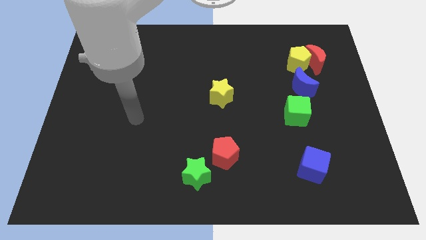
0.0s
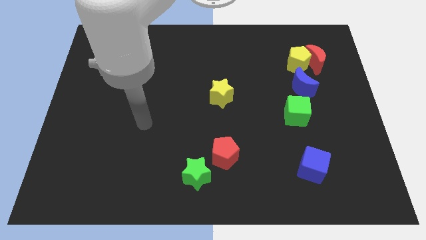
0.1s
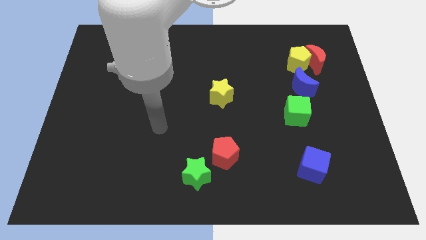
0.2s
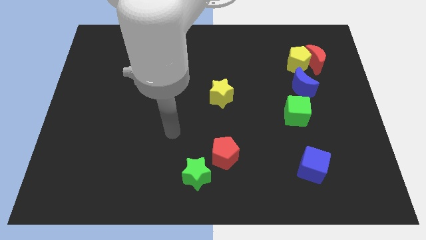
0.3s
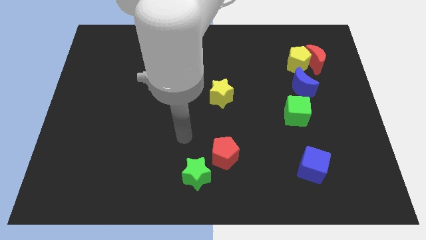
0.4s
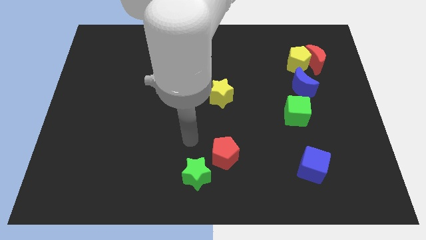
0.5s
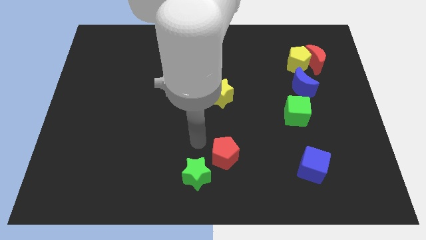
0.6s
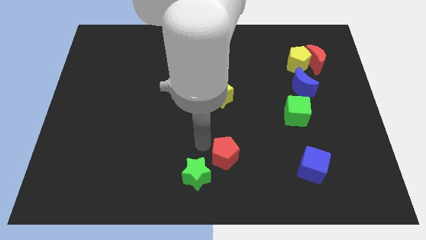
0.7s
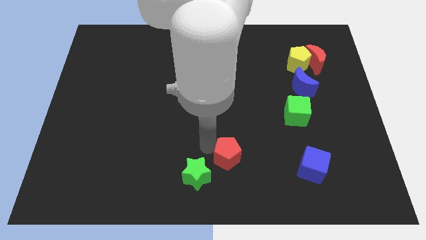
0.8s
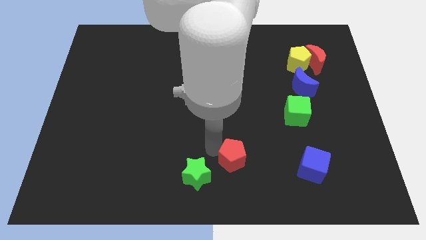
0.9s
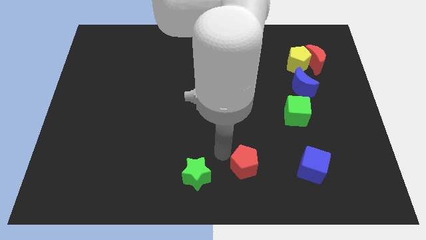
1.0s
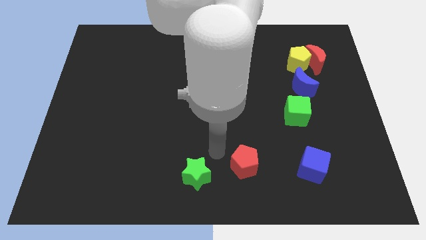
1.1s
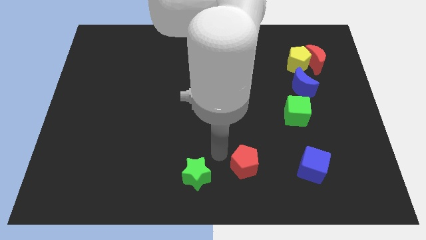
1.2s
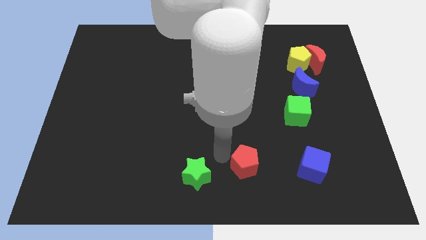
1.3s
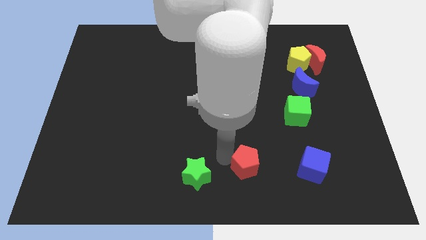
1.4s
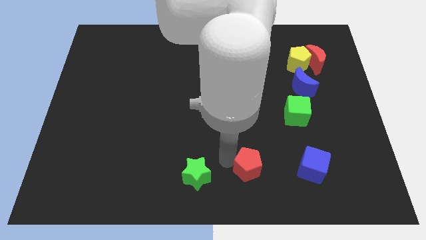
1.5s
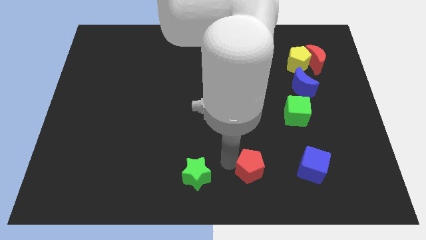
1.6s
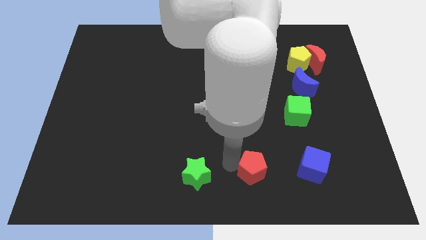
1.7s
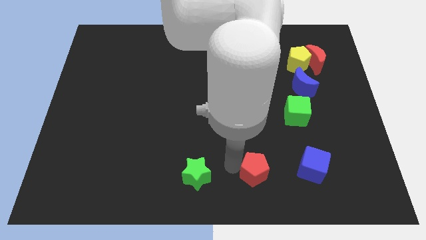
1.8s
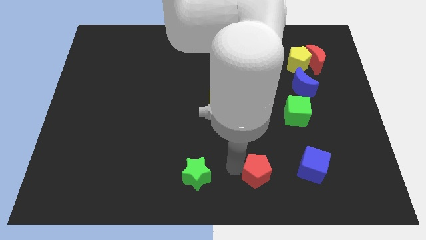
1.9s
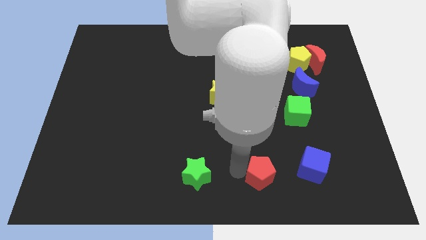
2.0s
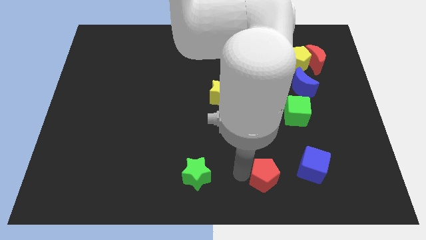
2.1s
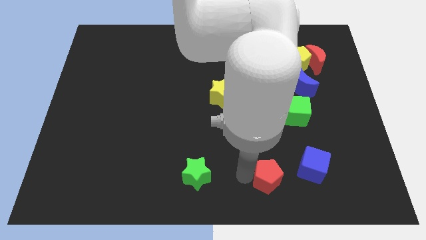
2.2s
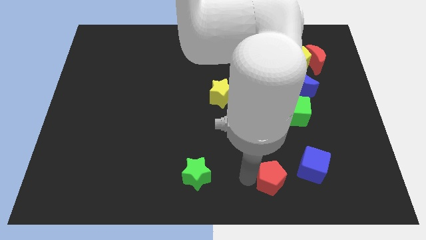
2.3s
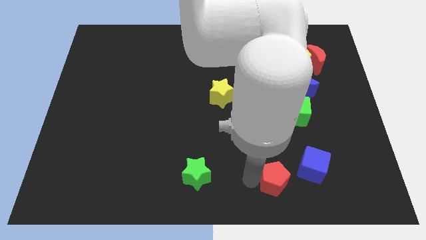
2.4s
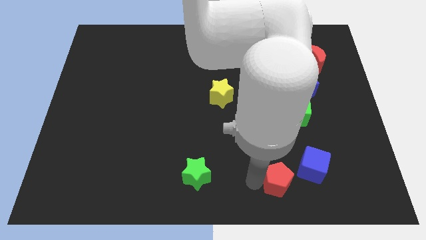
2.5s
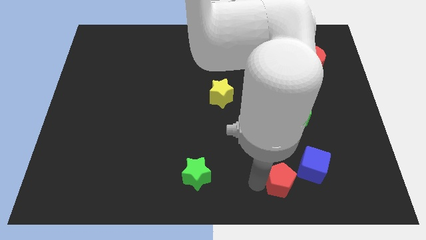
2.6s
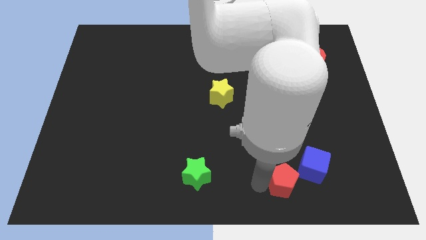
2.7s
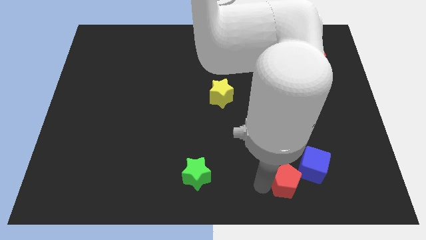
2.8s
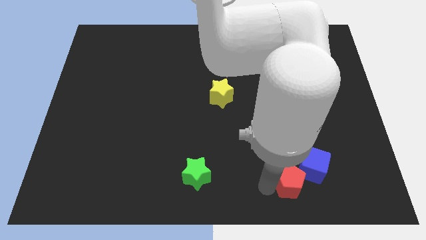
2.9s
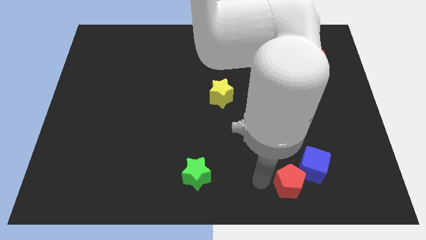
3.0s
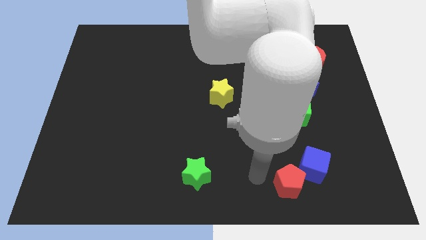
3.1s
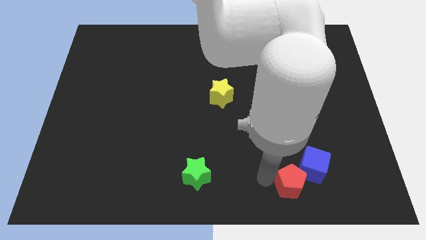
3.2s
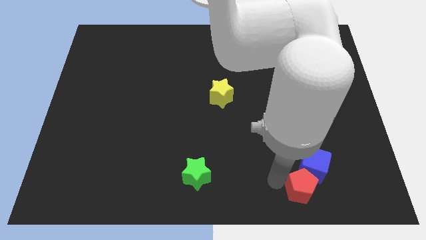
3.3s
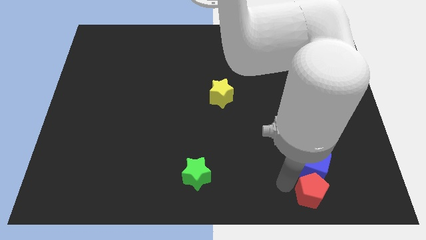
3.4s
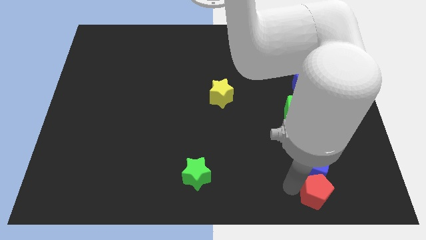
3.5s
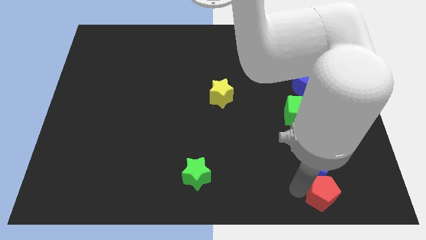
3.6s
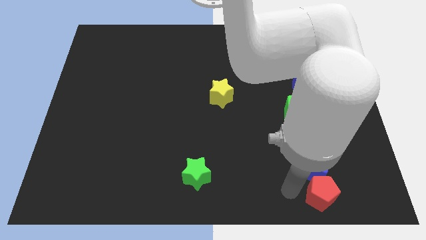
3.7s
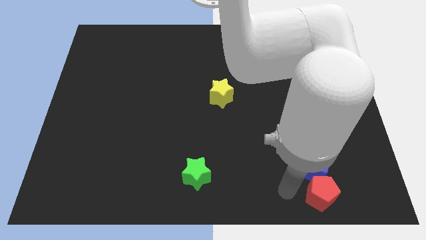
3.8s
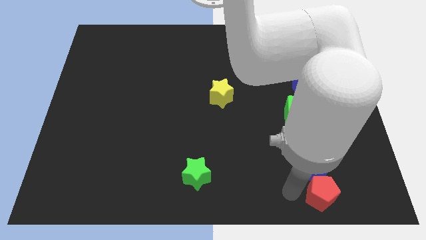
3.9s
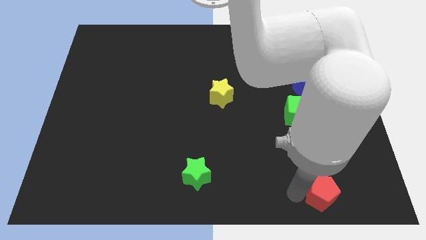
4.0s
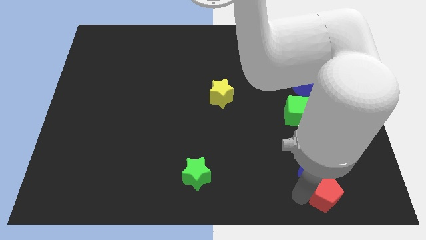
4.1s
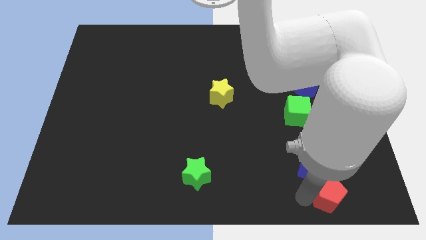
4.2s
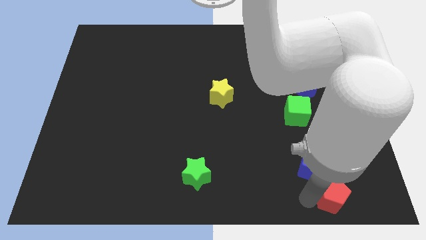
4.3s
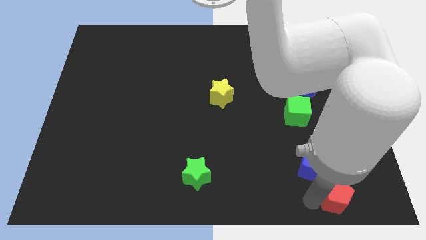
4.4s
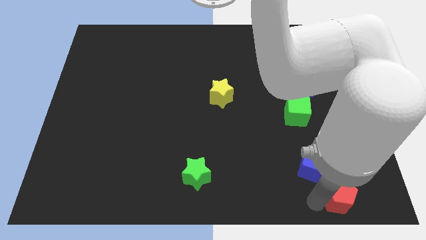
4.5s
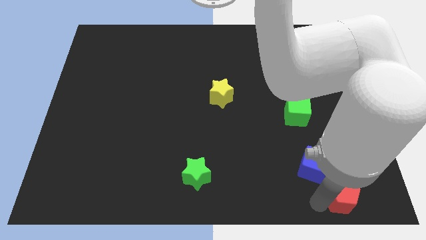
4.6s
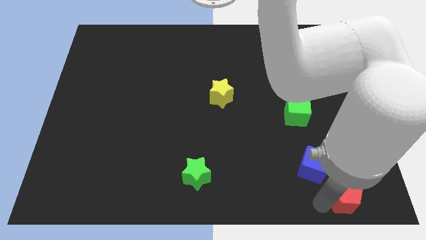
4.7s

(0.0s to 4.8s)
slide the red pentagon to the bottom right of the board

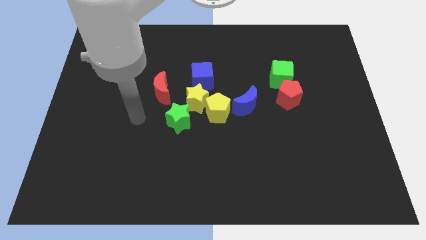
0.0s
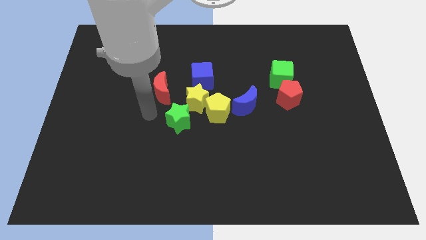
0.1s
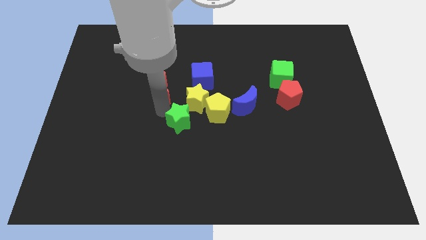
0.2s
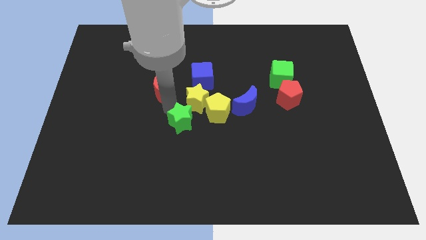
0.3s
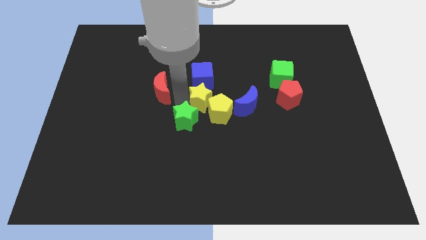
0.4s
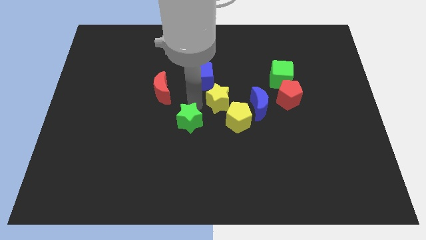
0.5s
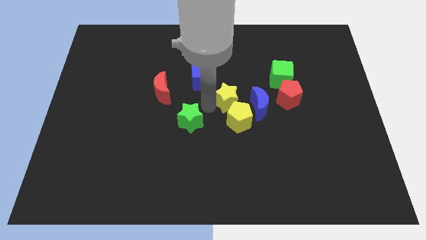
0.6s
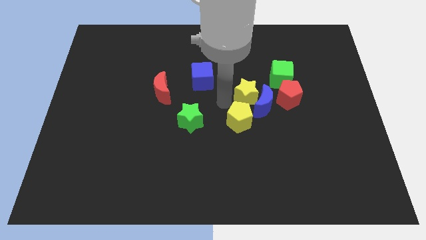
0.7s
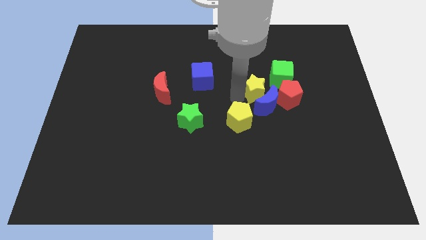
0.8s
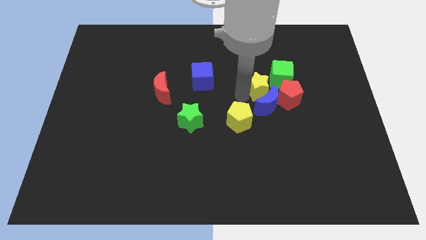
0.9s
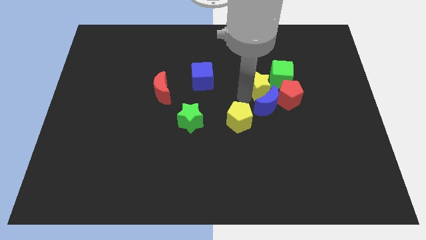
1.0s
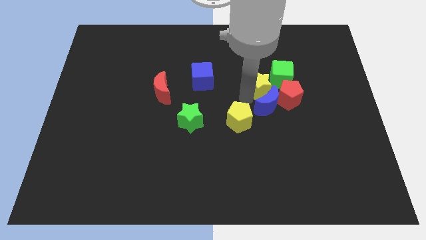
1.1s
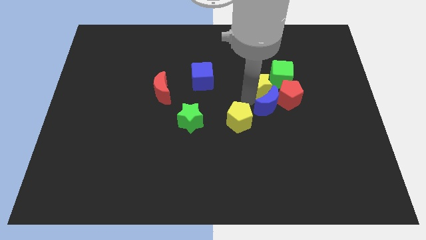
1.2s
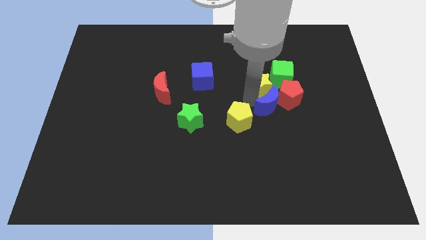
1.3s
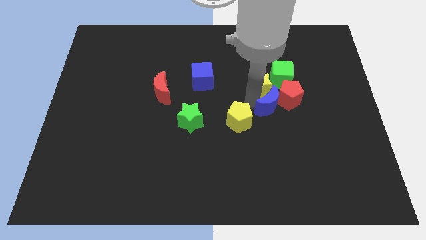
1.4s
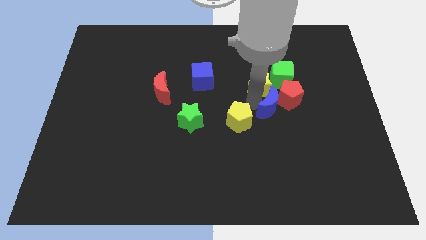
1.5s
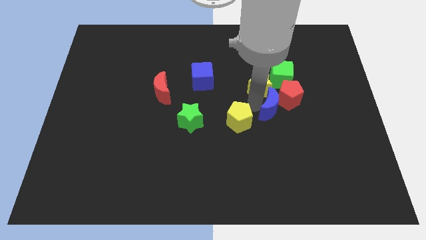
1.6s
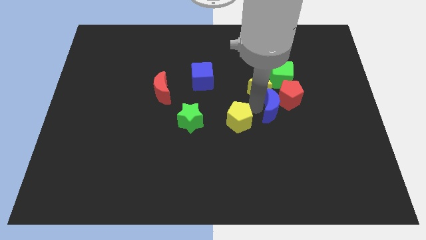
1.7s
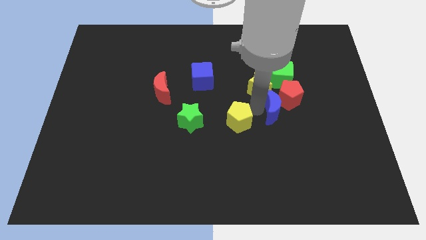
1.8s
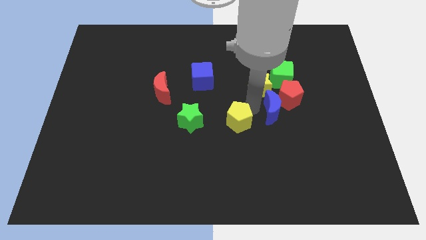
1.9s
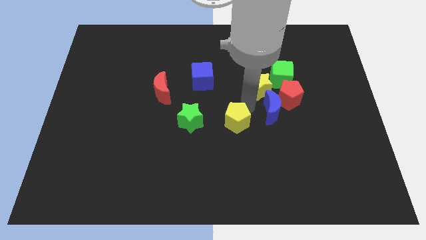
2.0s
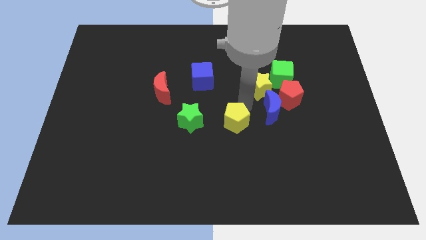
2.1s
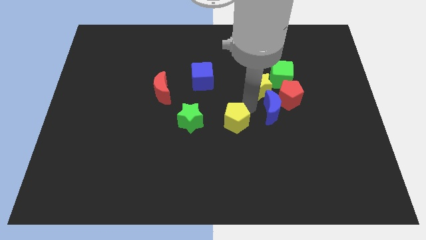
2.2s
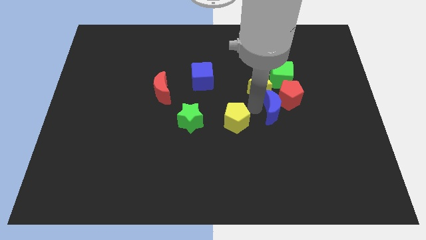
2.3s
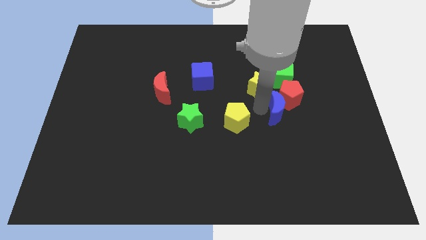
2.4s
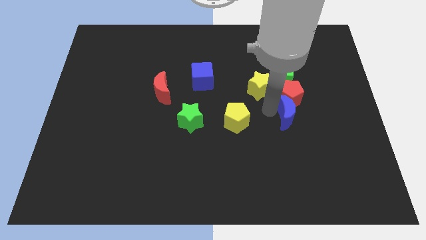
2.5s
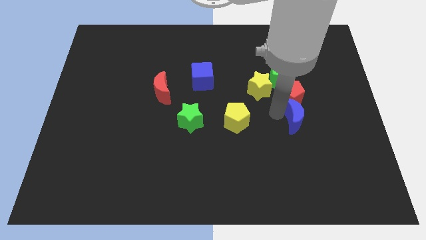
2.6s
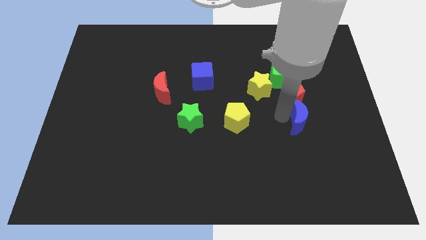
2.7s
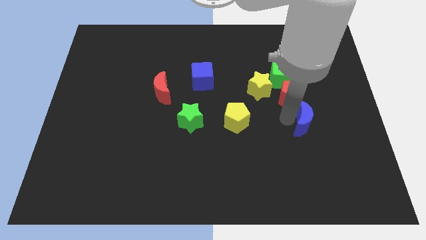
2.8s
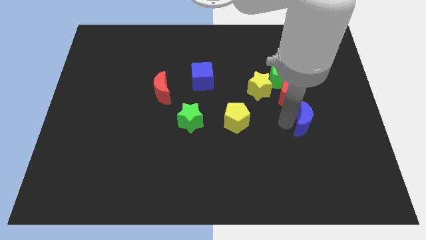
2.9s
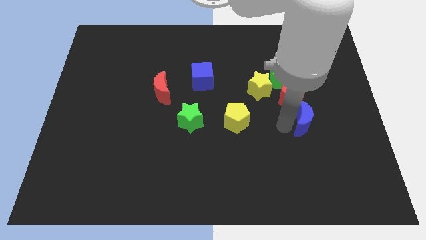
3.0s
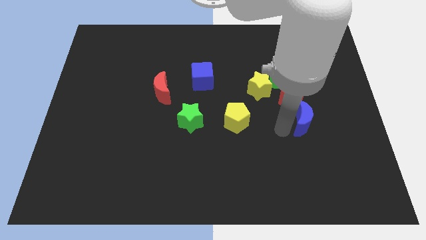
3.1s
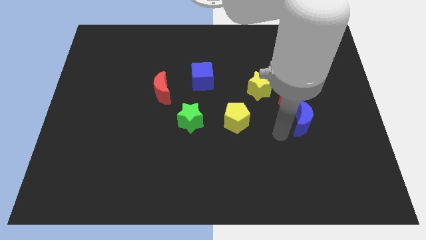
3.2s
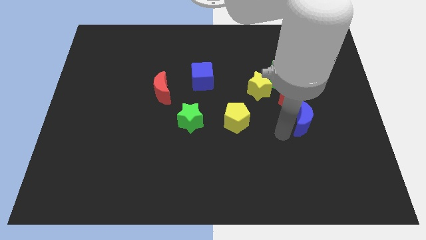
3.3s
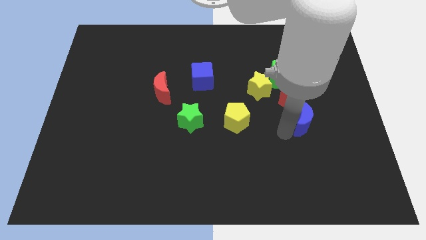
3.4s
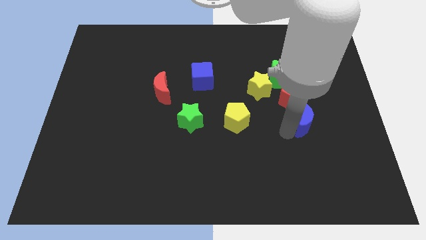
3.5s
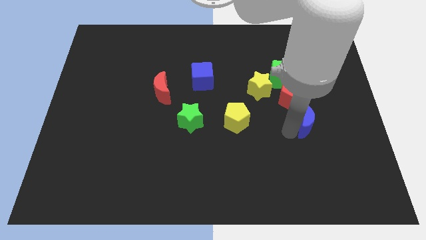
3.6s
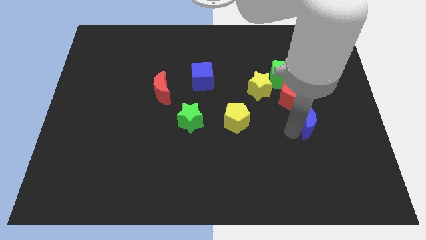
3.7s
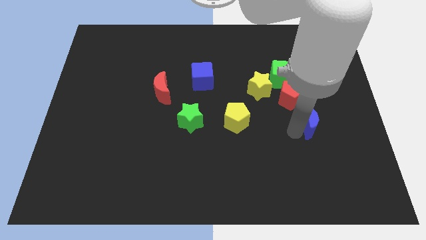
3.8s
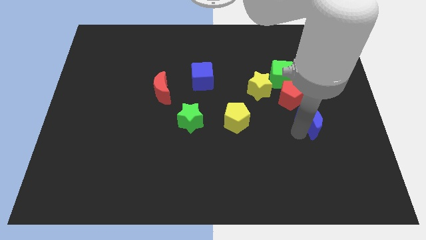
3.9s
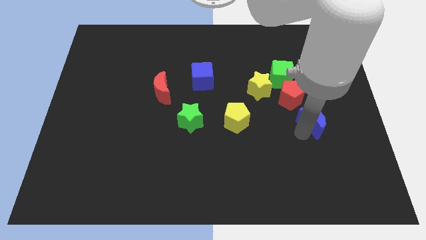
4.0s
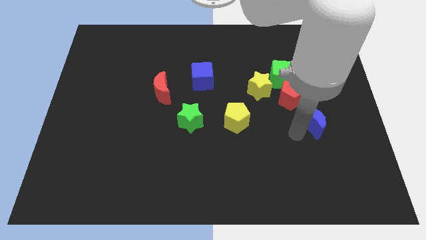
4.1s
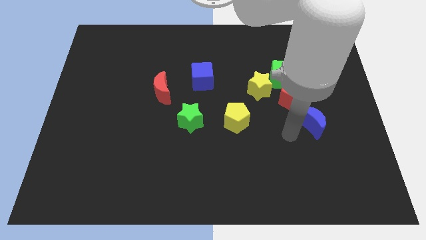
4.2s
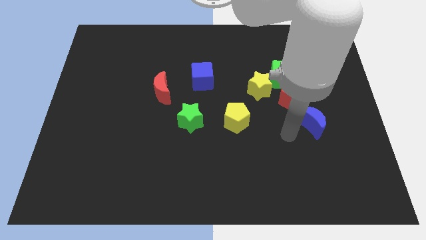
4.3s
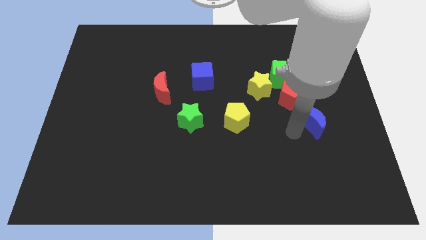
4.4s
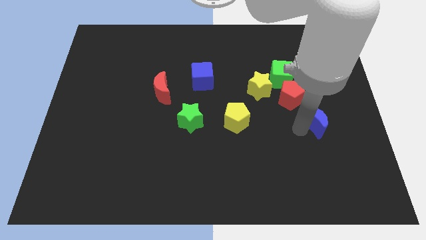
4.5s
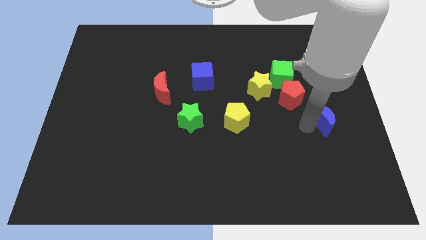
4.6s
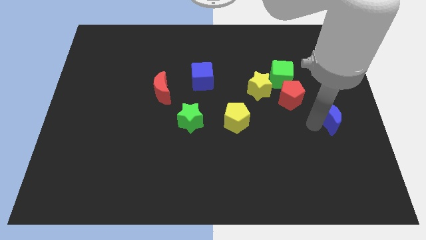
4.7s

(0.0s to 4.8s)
put the blue moon to the right side
